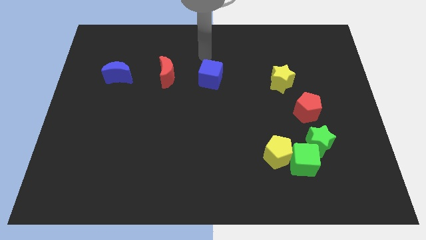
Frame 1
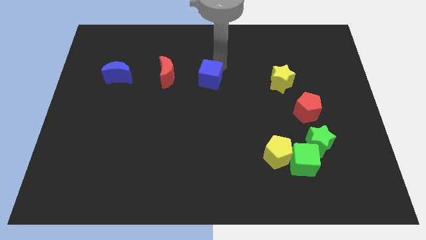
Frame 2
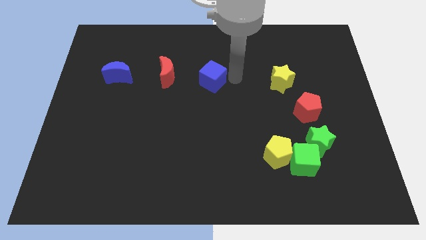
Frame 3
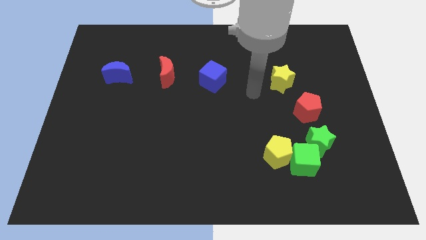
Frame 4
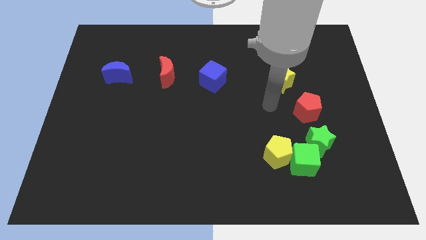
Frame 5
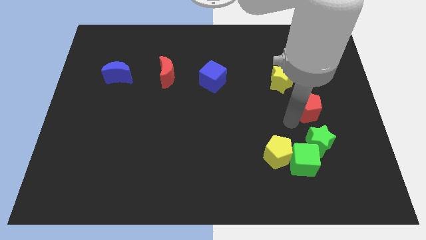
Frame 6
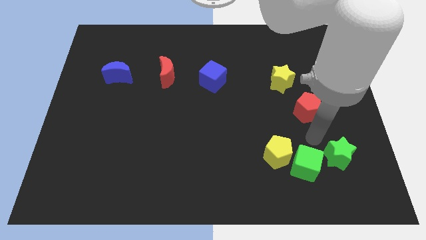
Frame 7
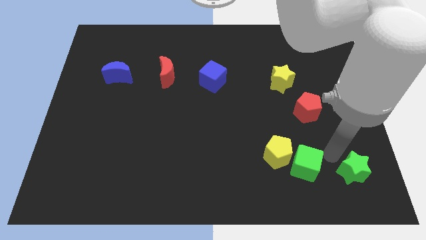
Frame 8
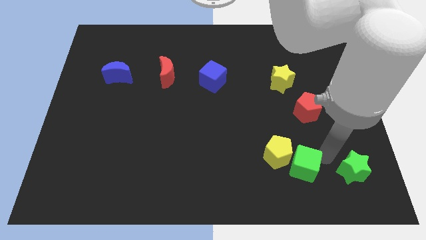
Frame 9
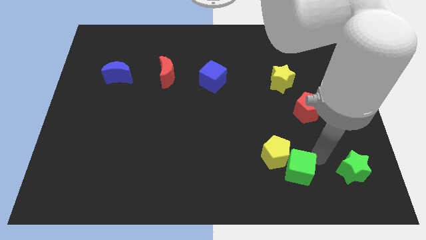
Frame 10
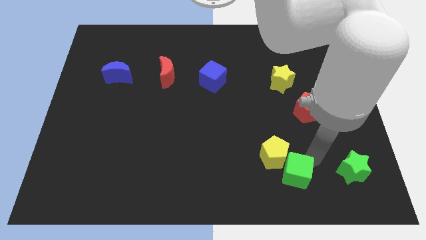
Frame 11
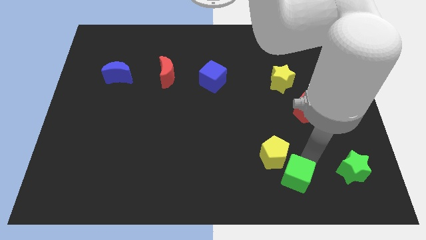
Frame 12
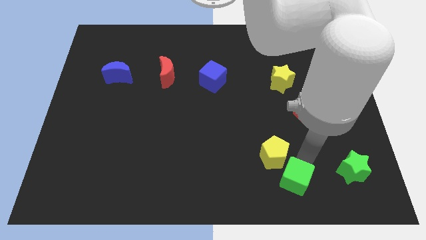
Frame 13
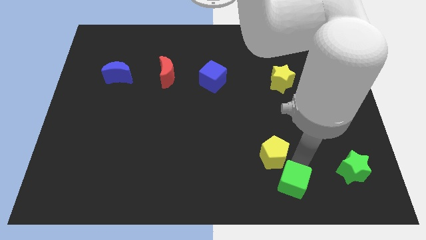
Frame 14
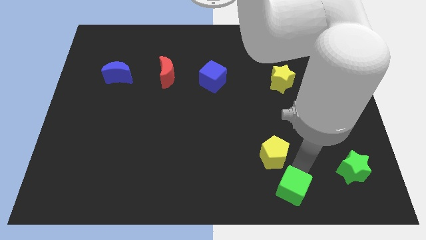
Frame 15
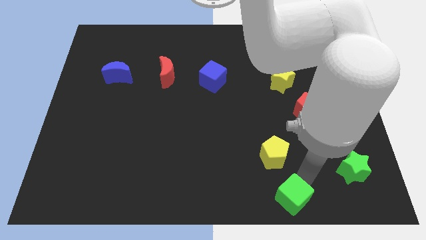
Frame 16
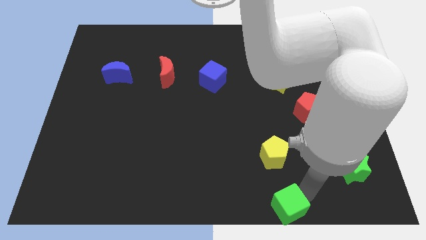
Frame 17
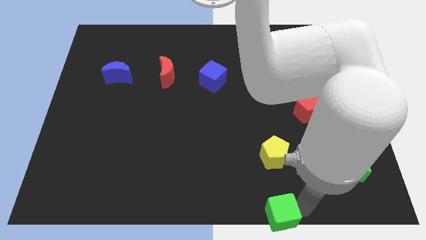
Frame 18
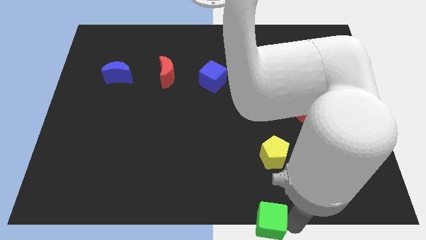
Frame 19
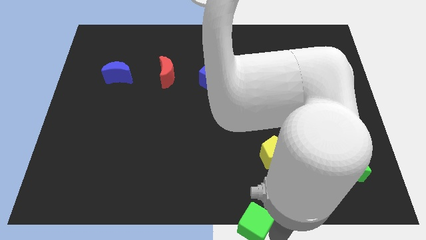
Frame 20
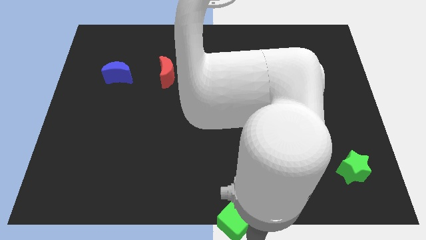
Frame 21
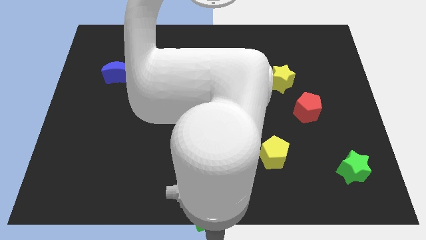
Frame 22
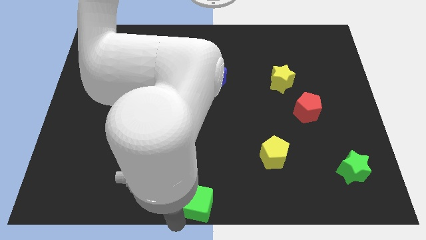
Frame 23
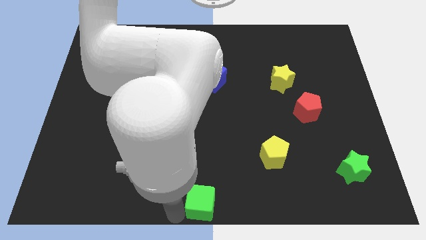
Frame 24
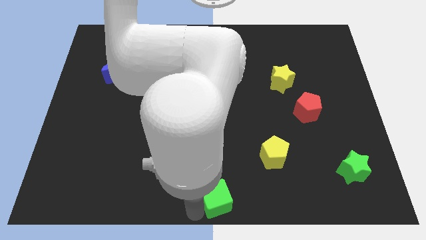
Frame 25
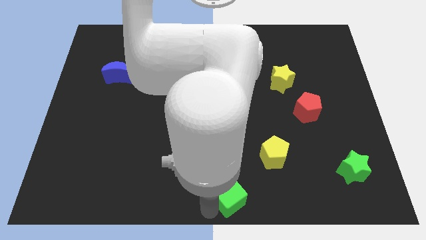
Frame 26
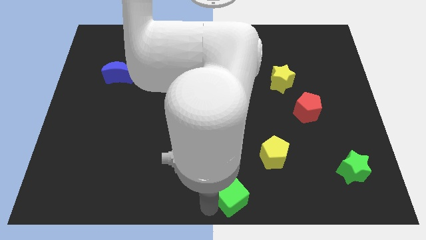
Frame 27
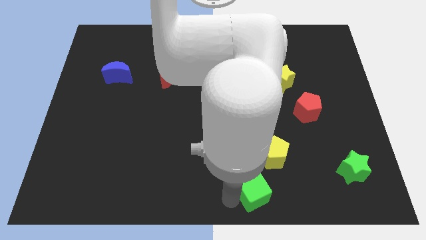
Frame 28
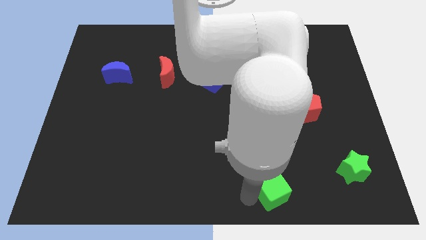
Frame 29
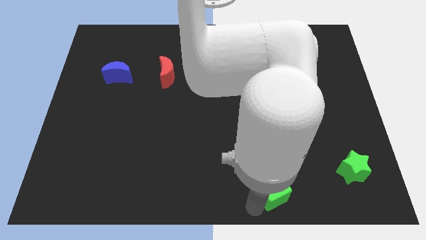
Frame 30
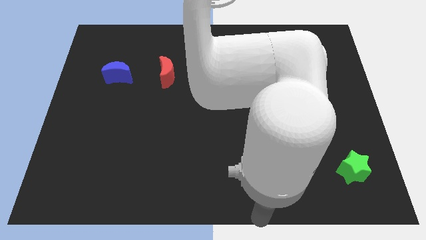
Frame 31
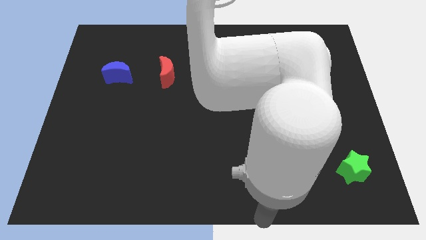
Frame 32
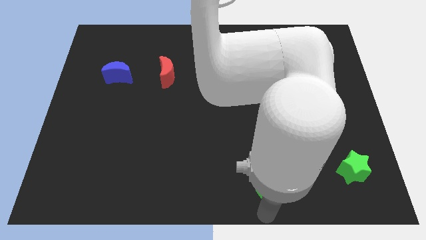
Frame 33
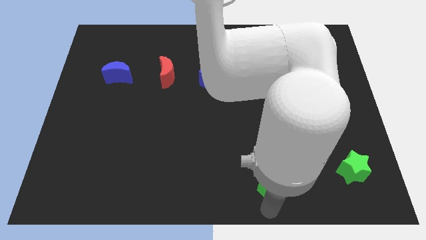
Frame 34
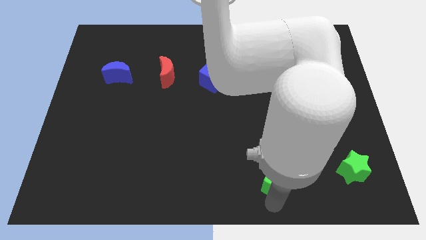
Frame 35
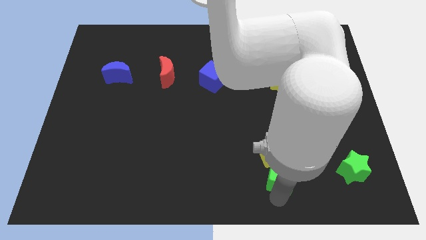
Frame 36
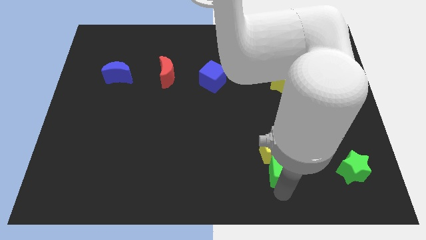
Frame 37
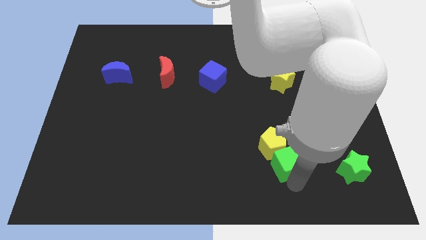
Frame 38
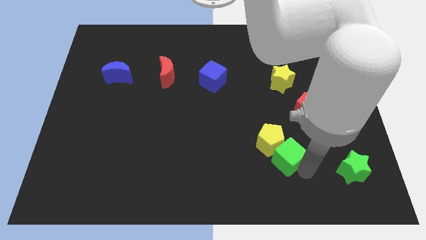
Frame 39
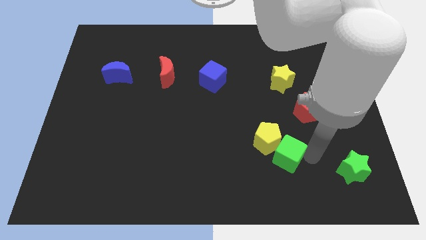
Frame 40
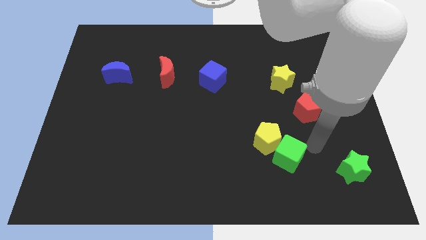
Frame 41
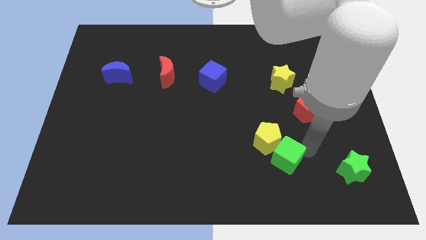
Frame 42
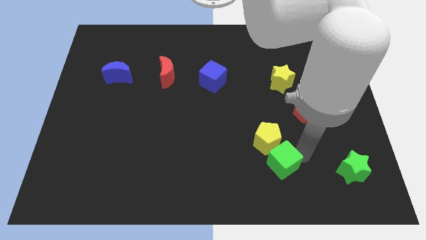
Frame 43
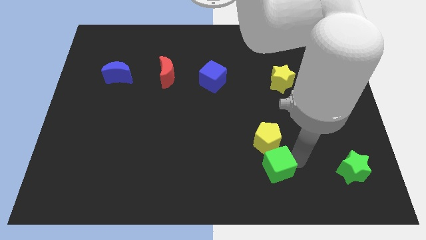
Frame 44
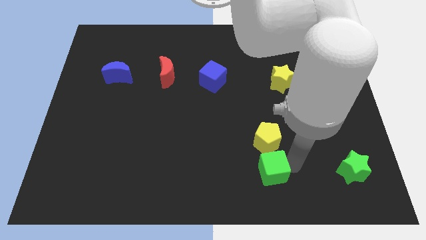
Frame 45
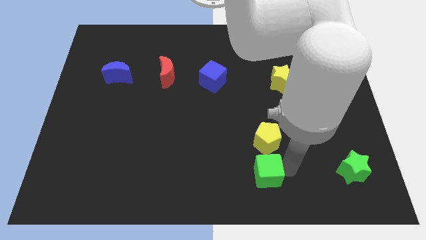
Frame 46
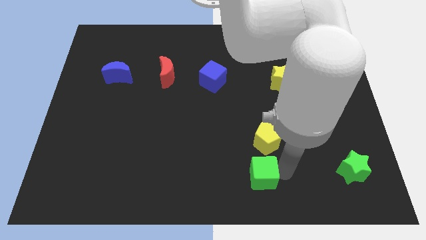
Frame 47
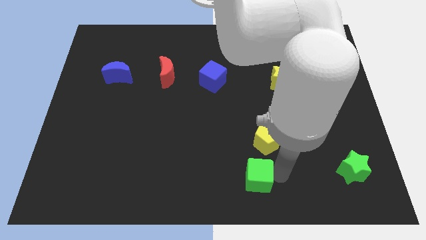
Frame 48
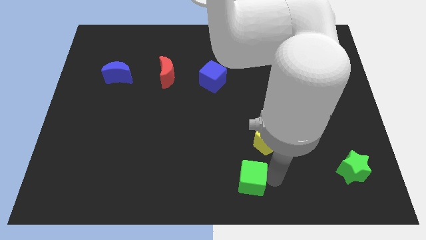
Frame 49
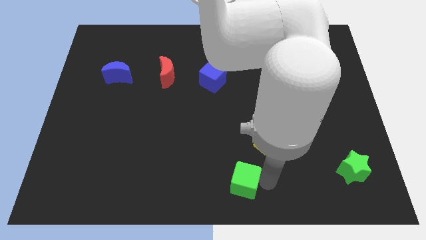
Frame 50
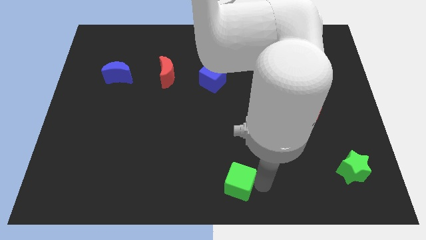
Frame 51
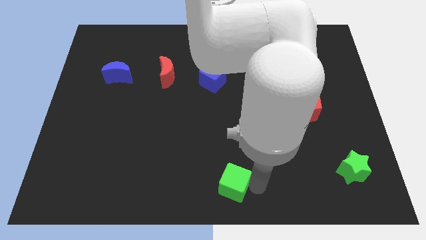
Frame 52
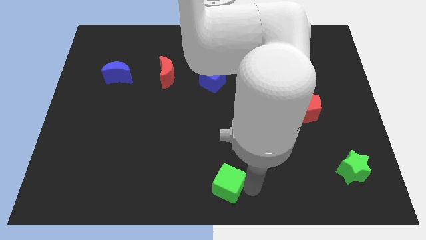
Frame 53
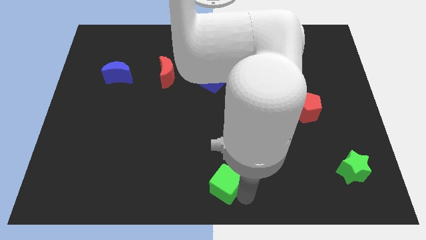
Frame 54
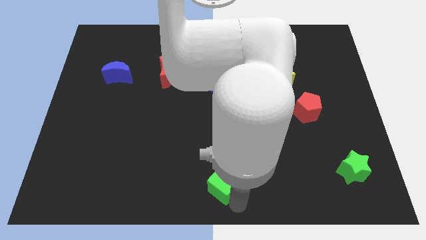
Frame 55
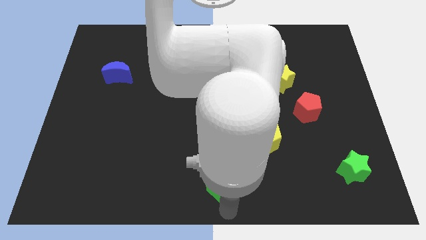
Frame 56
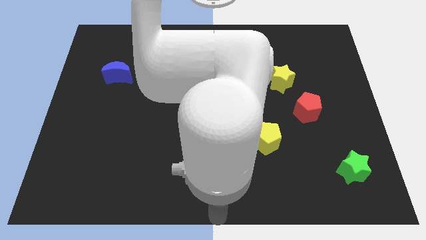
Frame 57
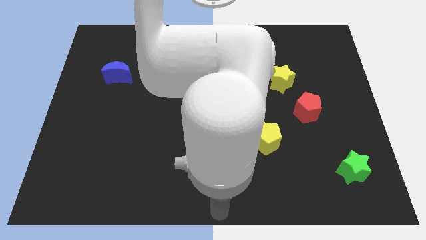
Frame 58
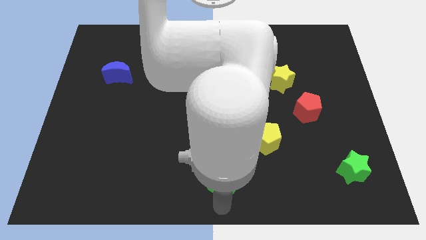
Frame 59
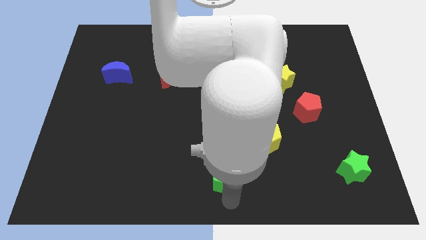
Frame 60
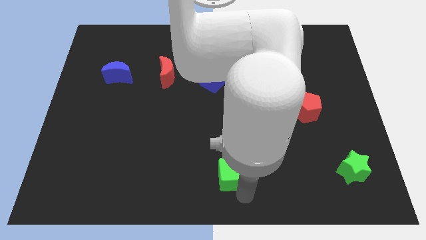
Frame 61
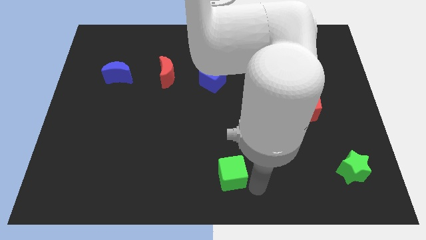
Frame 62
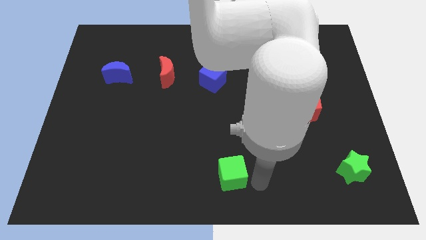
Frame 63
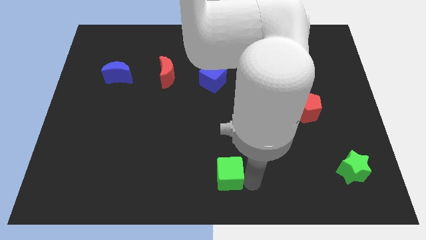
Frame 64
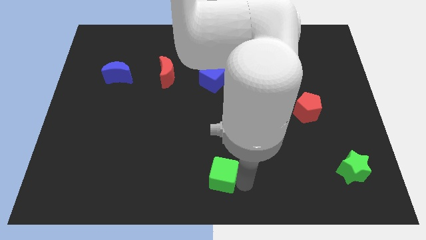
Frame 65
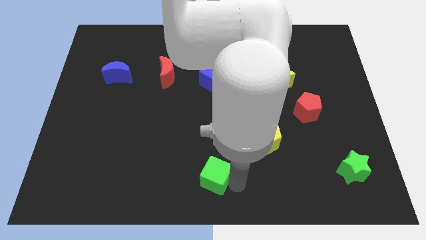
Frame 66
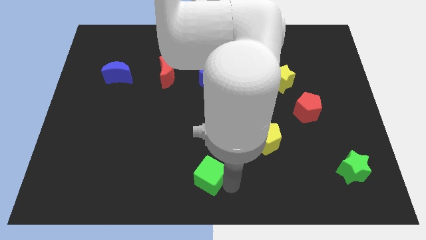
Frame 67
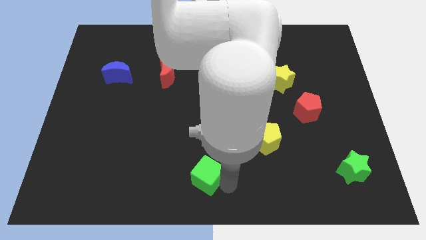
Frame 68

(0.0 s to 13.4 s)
slide the green cube left

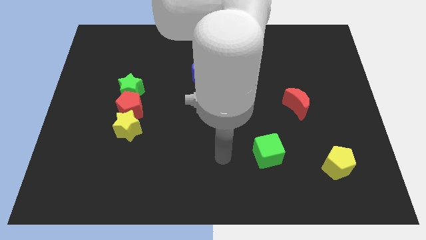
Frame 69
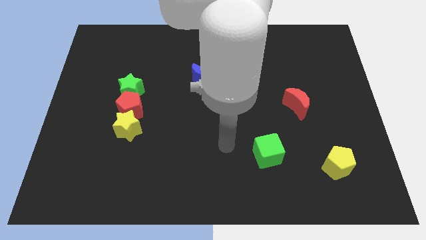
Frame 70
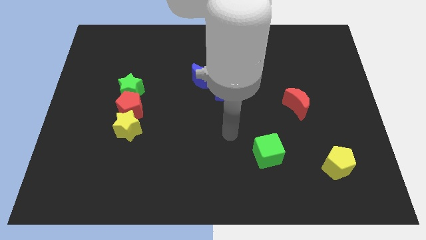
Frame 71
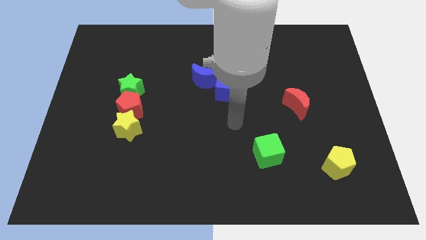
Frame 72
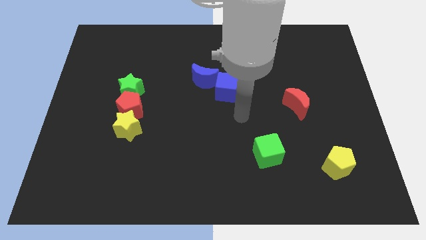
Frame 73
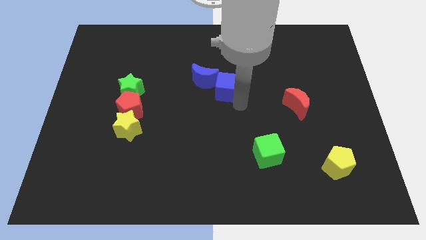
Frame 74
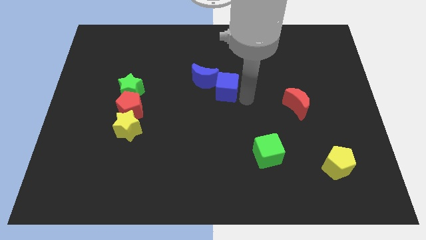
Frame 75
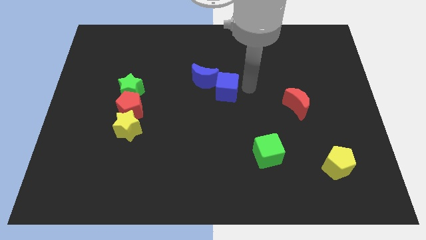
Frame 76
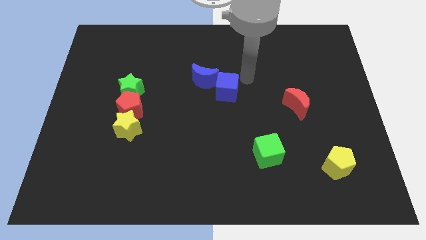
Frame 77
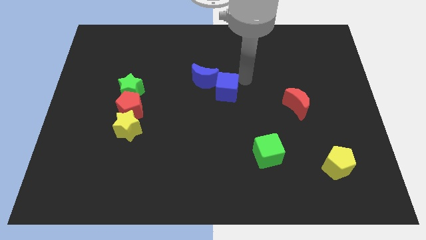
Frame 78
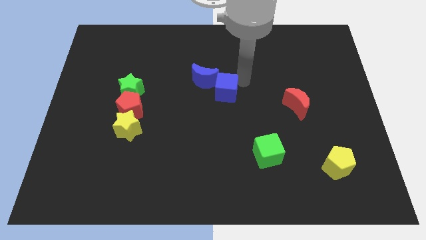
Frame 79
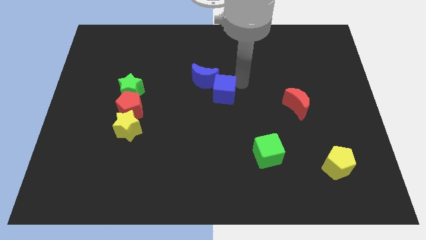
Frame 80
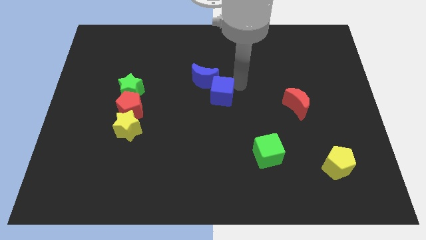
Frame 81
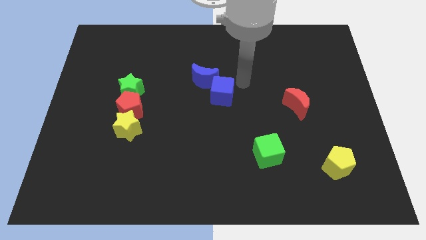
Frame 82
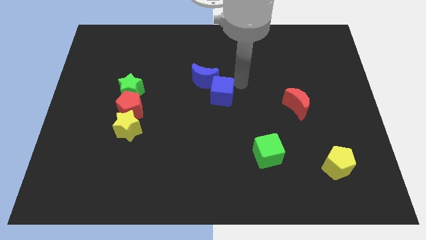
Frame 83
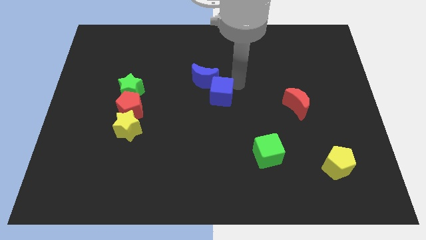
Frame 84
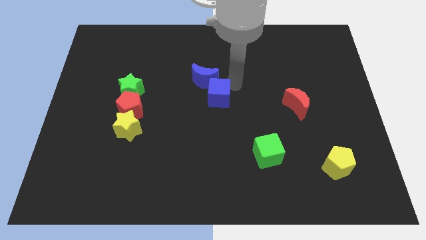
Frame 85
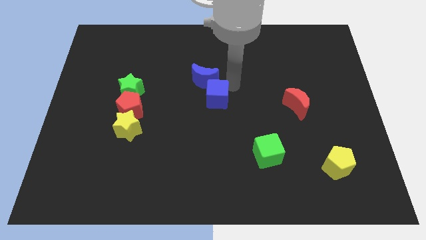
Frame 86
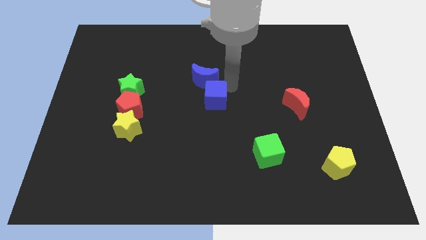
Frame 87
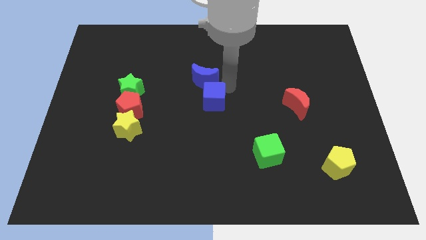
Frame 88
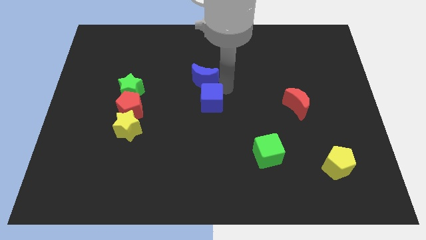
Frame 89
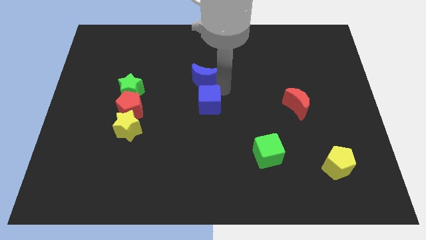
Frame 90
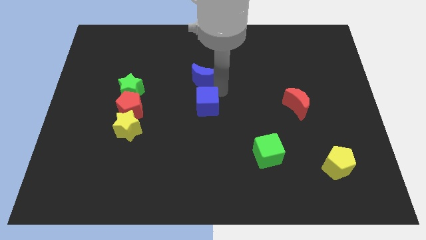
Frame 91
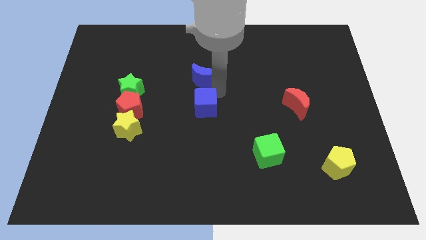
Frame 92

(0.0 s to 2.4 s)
slightly slide the blue cube down and left
